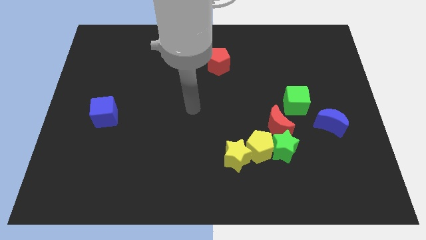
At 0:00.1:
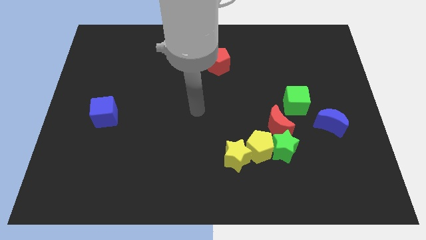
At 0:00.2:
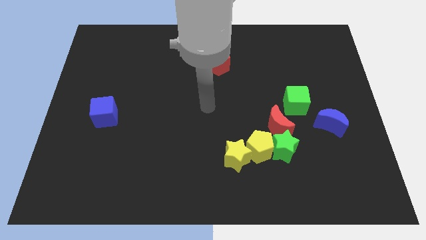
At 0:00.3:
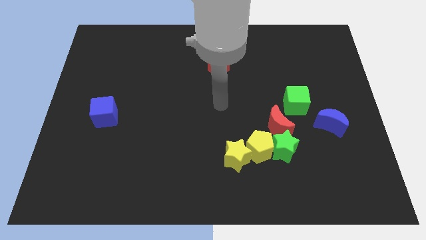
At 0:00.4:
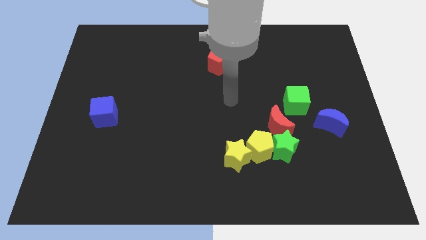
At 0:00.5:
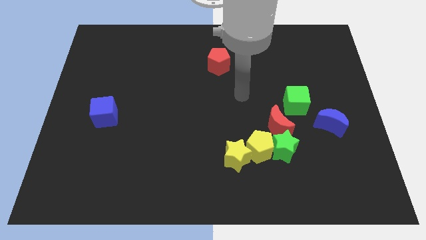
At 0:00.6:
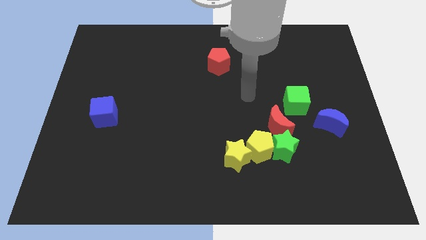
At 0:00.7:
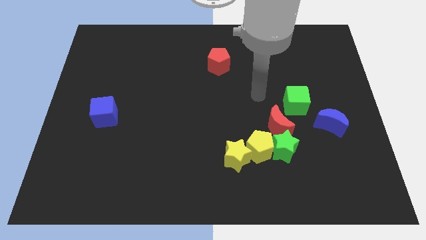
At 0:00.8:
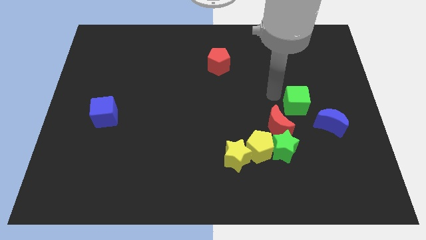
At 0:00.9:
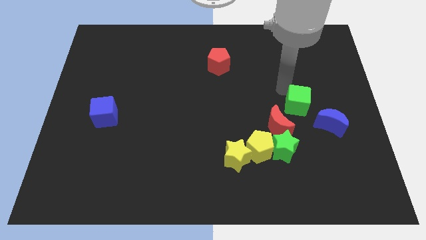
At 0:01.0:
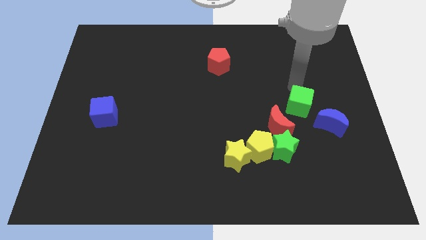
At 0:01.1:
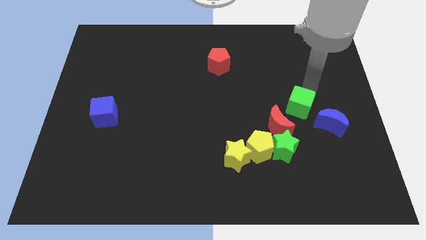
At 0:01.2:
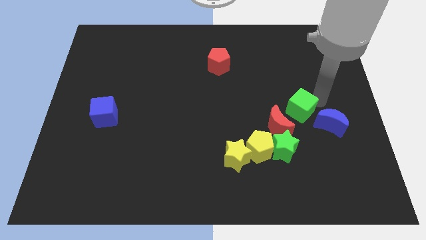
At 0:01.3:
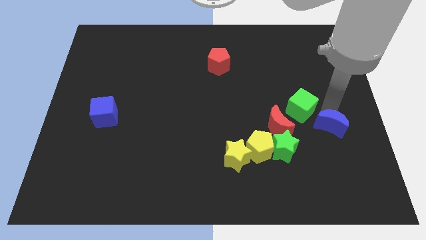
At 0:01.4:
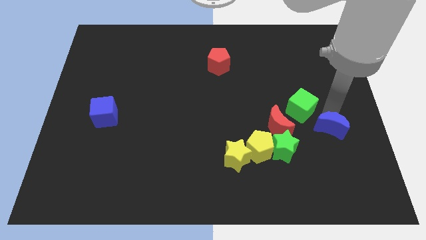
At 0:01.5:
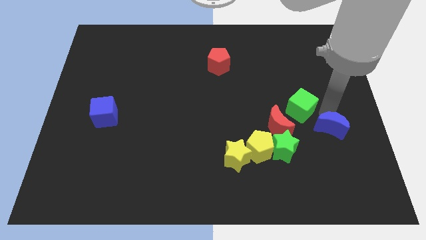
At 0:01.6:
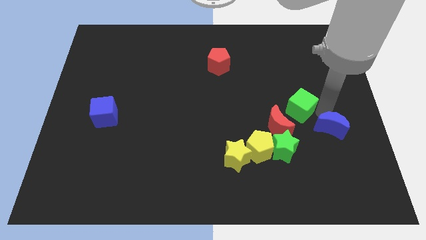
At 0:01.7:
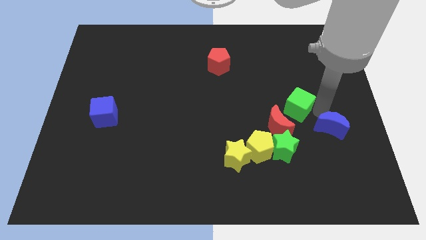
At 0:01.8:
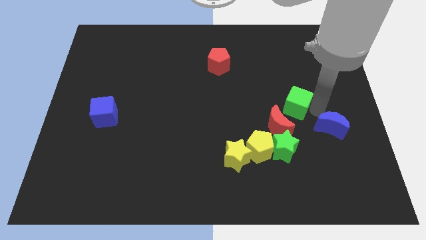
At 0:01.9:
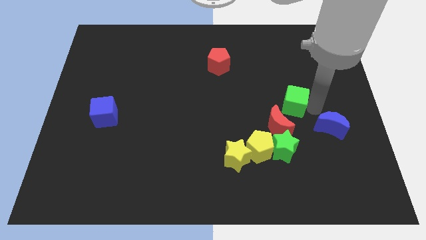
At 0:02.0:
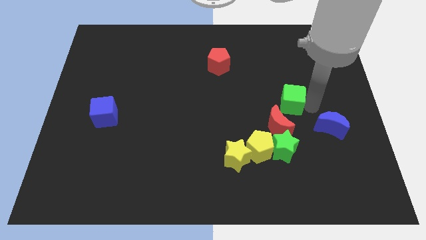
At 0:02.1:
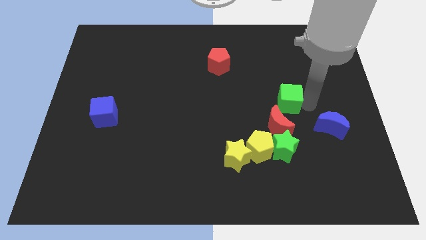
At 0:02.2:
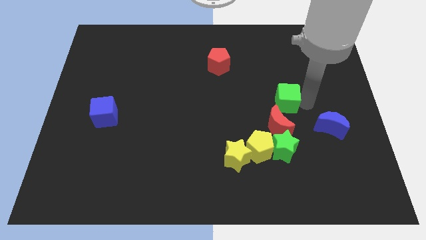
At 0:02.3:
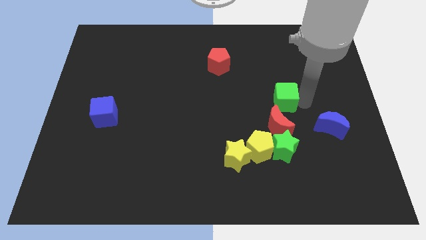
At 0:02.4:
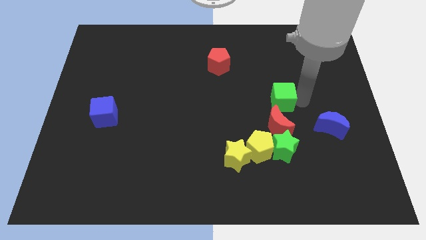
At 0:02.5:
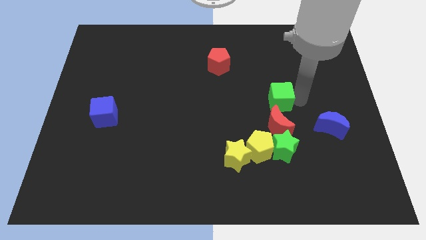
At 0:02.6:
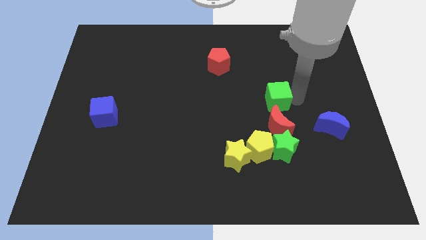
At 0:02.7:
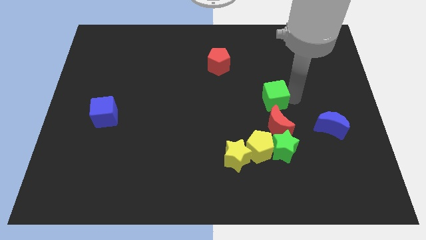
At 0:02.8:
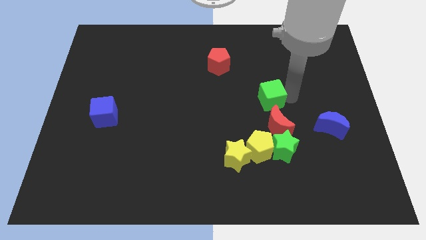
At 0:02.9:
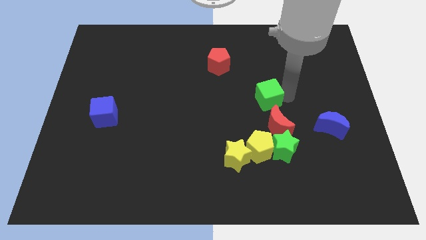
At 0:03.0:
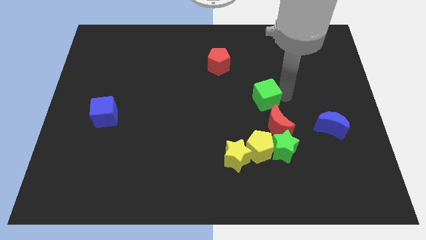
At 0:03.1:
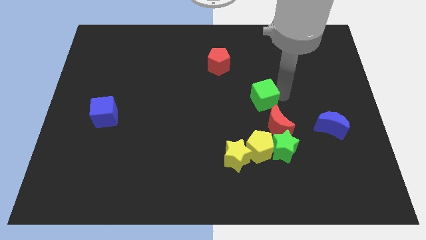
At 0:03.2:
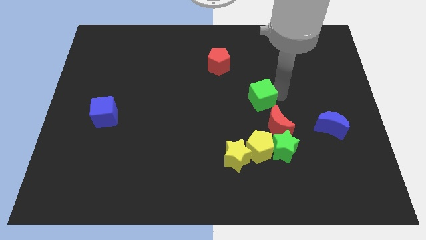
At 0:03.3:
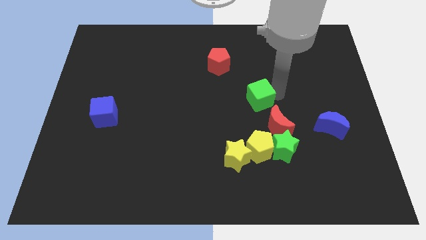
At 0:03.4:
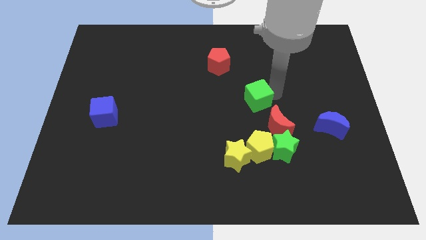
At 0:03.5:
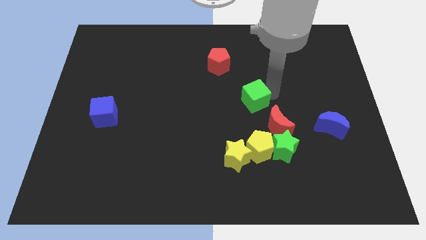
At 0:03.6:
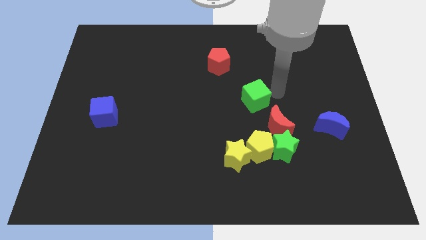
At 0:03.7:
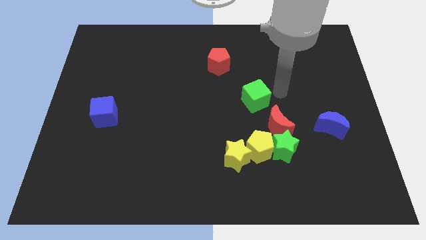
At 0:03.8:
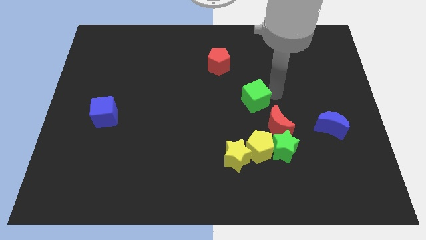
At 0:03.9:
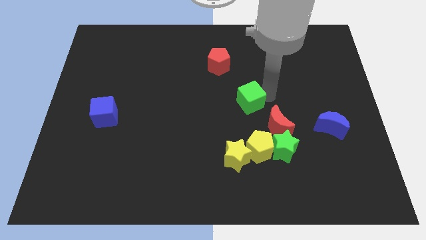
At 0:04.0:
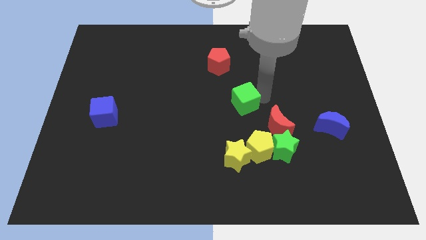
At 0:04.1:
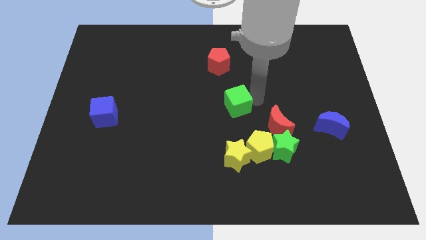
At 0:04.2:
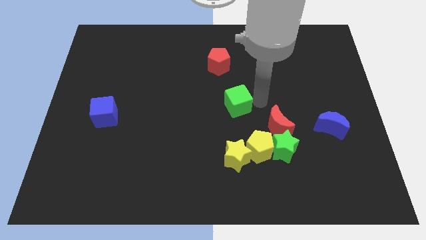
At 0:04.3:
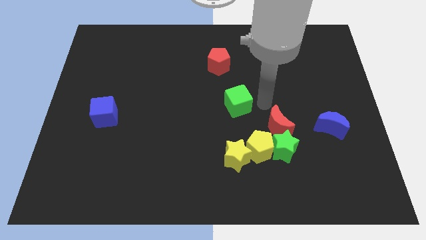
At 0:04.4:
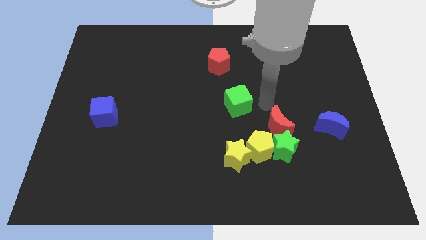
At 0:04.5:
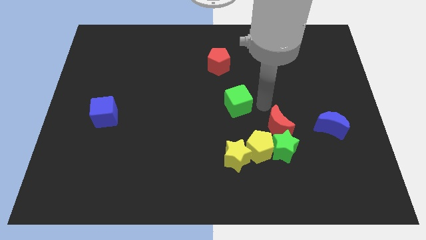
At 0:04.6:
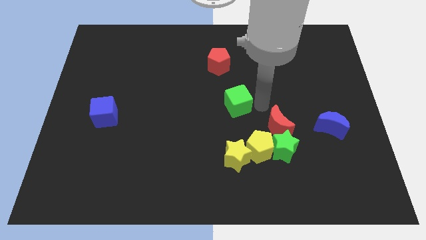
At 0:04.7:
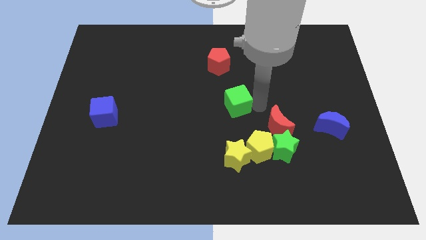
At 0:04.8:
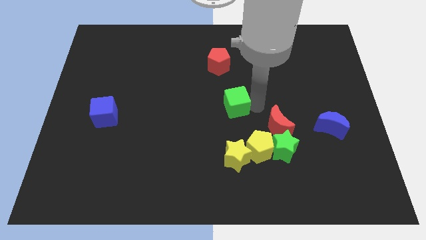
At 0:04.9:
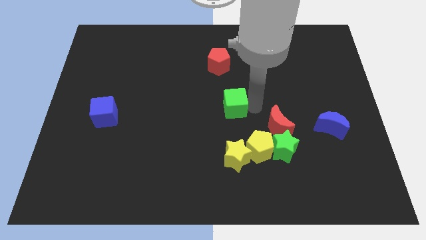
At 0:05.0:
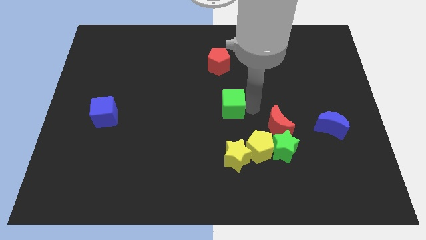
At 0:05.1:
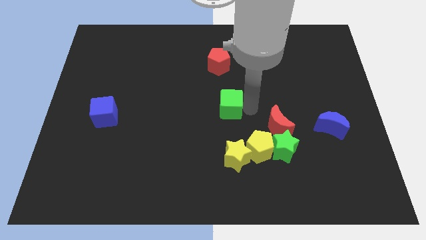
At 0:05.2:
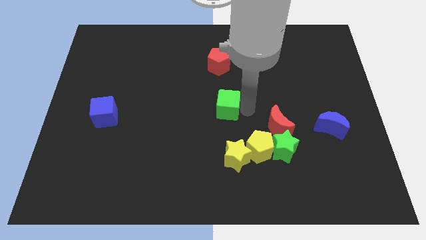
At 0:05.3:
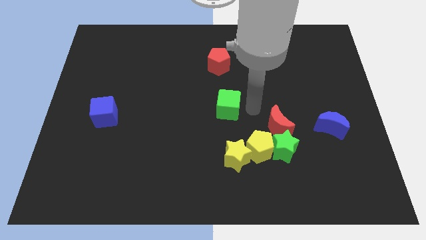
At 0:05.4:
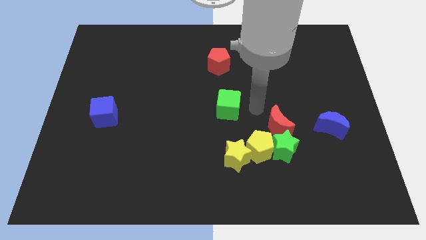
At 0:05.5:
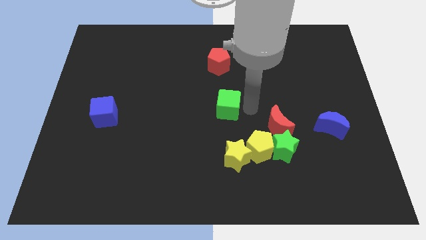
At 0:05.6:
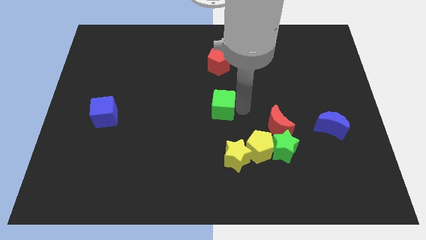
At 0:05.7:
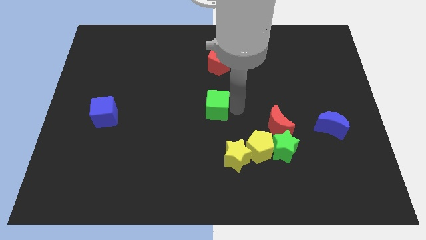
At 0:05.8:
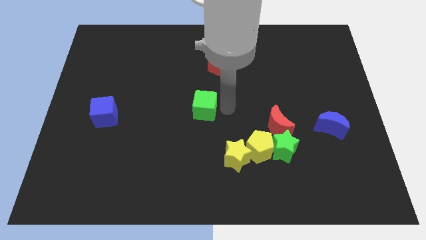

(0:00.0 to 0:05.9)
push the green cube left

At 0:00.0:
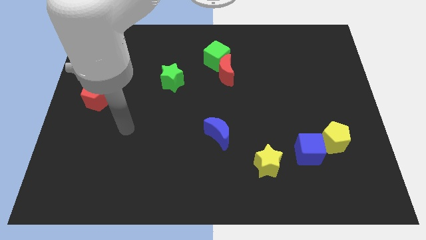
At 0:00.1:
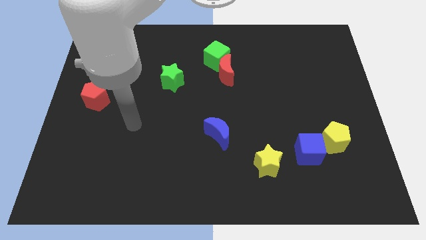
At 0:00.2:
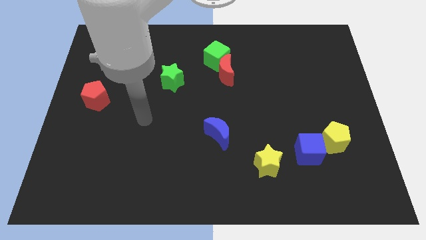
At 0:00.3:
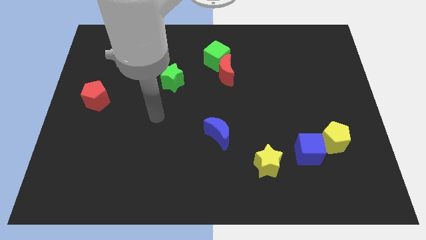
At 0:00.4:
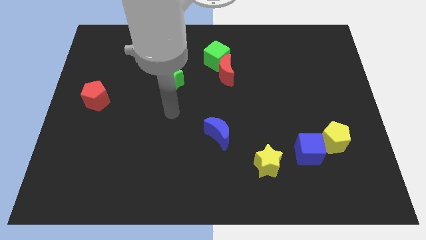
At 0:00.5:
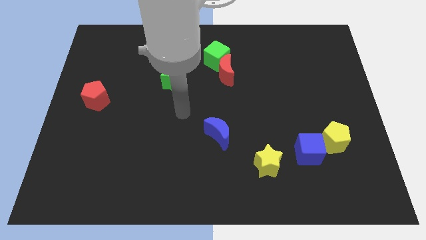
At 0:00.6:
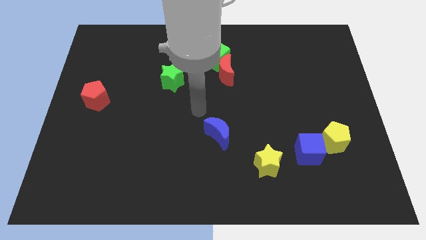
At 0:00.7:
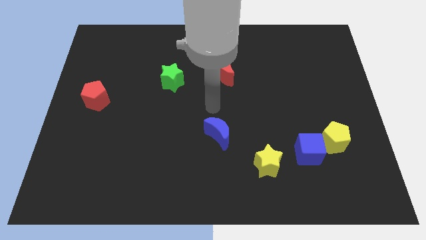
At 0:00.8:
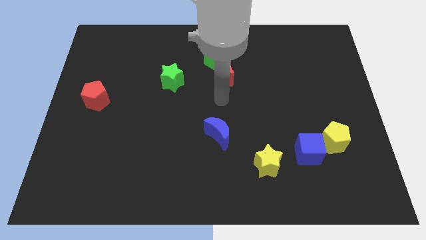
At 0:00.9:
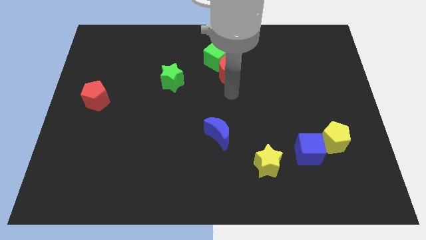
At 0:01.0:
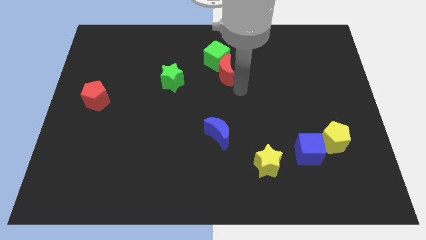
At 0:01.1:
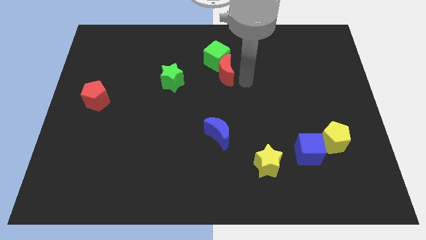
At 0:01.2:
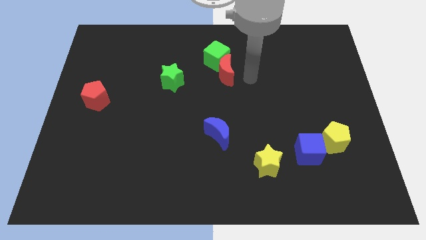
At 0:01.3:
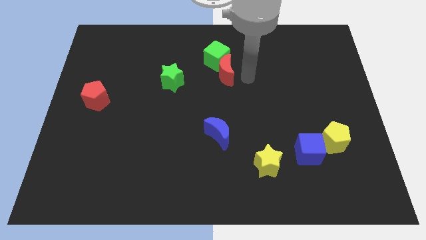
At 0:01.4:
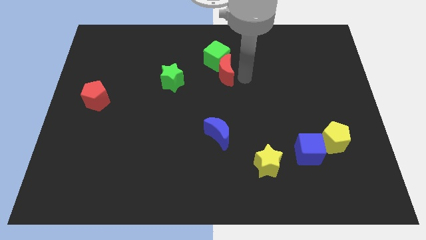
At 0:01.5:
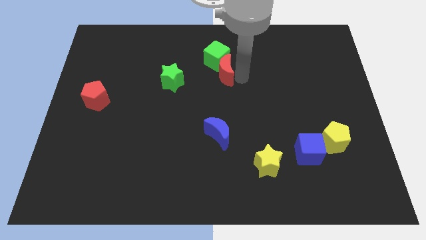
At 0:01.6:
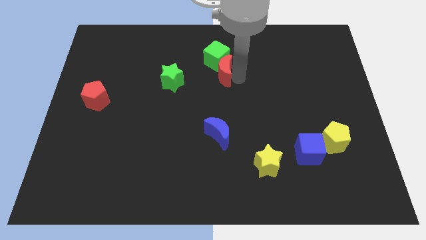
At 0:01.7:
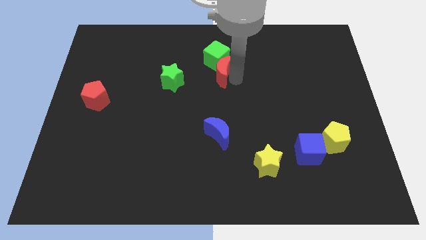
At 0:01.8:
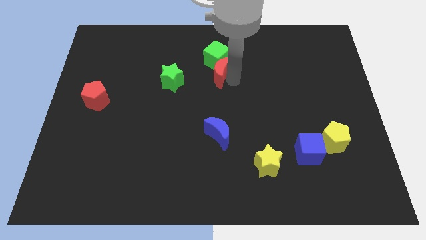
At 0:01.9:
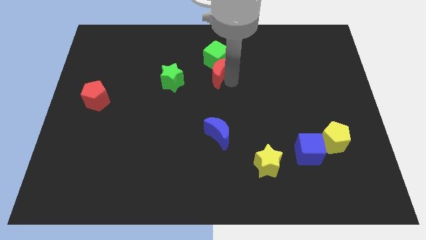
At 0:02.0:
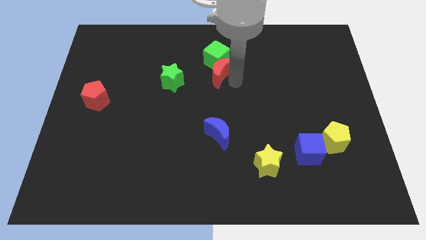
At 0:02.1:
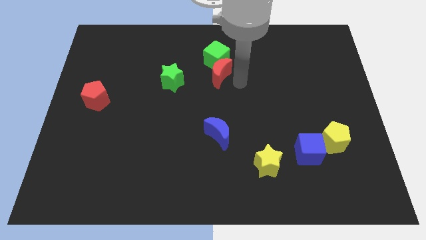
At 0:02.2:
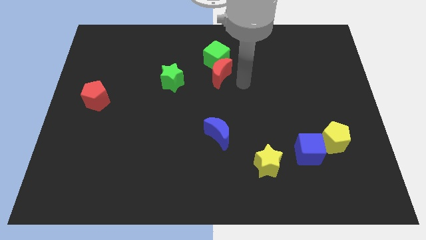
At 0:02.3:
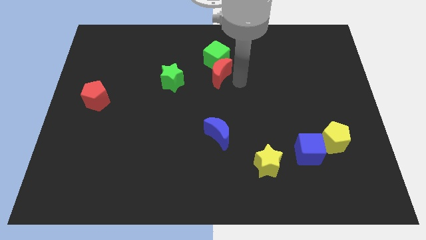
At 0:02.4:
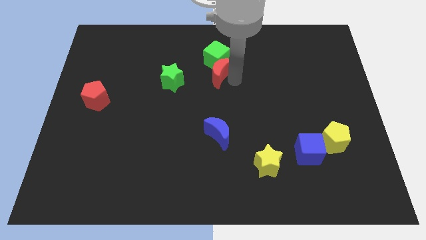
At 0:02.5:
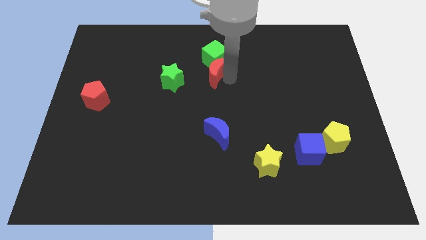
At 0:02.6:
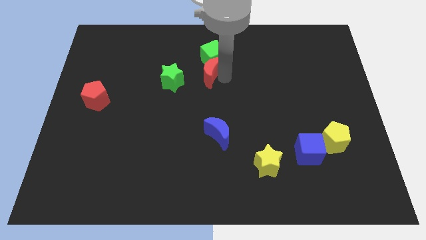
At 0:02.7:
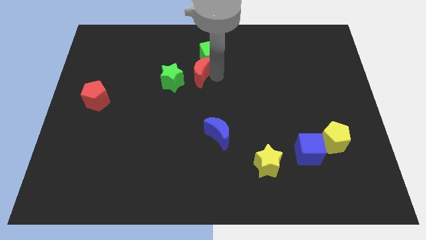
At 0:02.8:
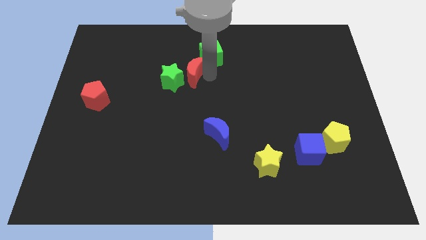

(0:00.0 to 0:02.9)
slightly slide the red moon to the left
